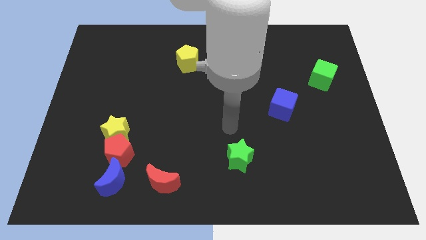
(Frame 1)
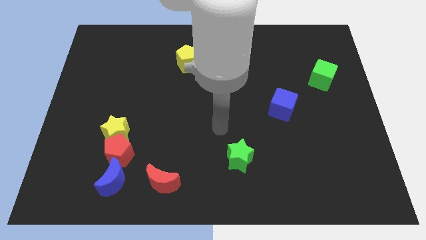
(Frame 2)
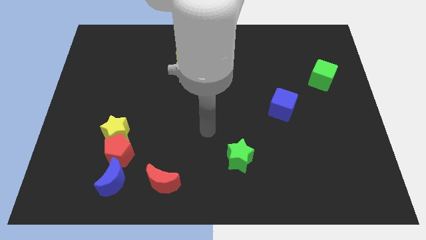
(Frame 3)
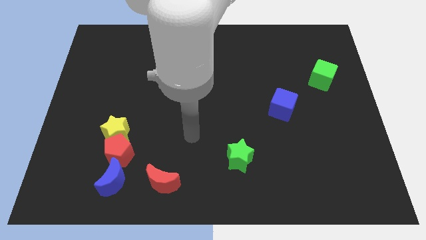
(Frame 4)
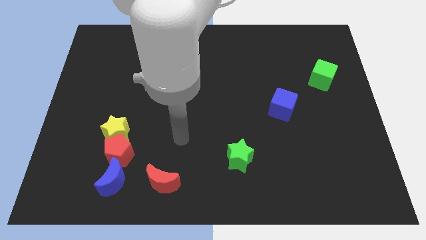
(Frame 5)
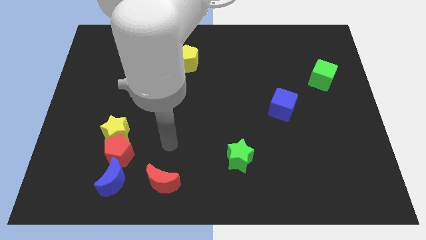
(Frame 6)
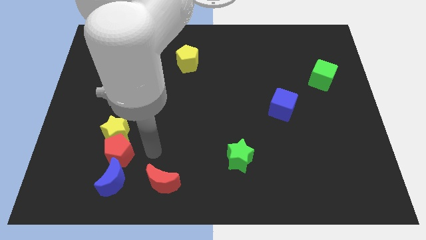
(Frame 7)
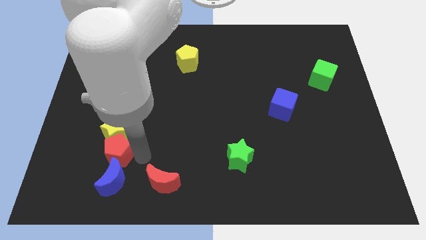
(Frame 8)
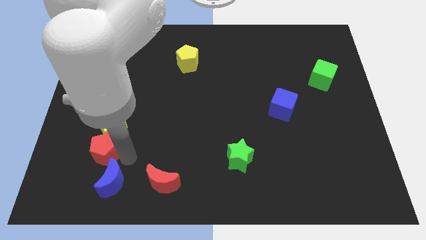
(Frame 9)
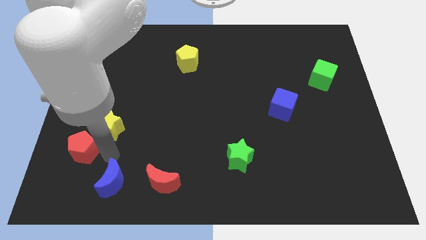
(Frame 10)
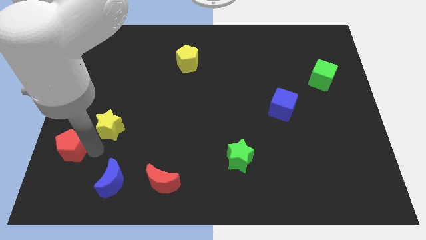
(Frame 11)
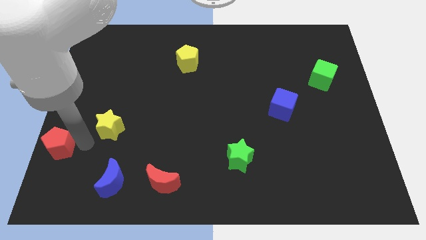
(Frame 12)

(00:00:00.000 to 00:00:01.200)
separate the yellow star from the red pentagon

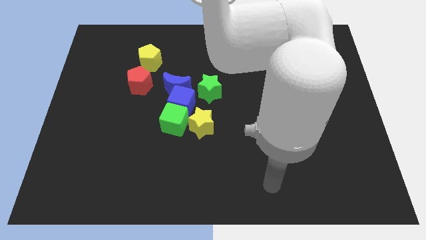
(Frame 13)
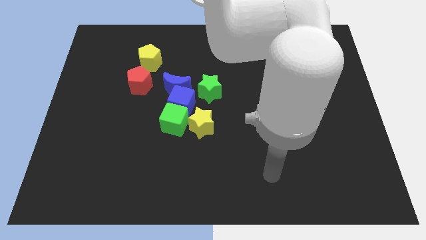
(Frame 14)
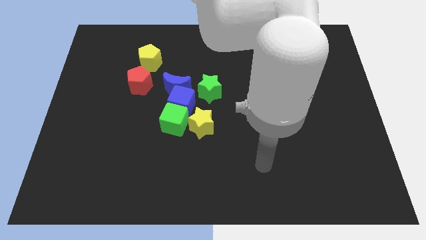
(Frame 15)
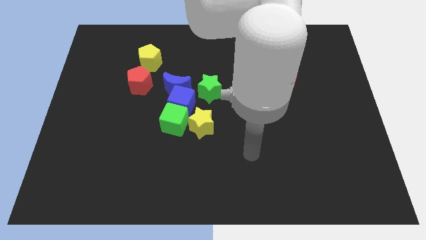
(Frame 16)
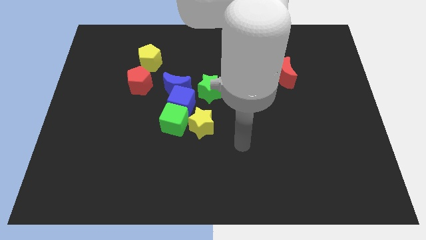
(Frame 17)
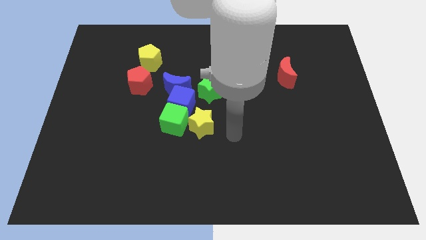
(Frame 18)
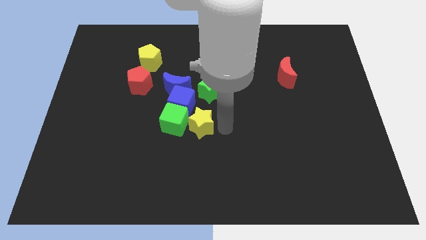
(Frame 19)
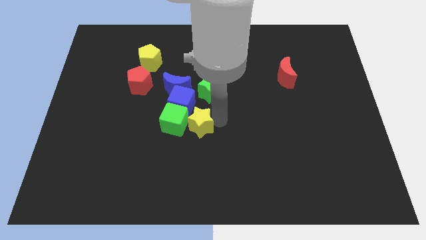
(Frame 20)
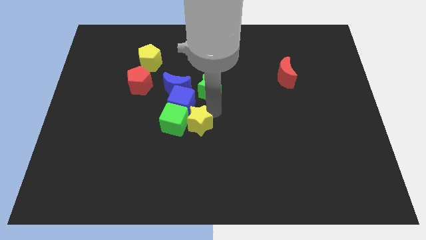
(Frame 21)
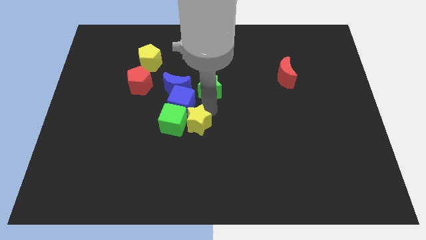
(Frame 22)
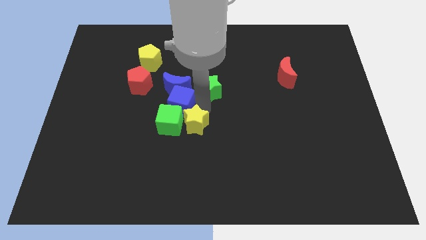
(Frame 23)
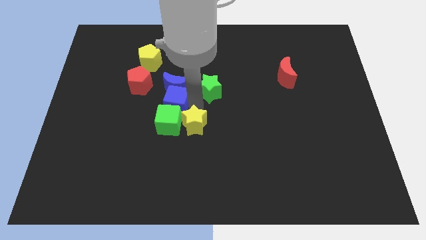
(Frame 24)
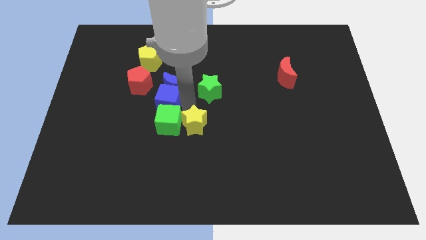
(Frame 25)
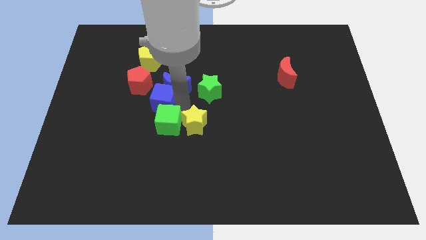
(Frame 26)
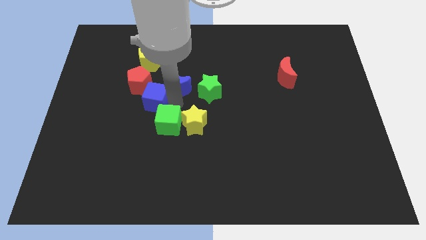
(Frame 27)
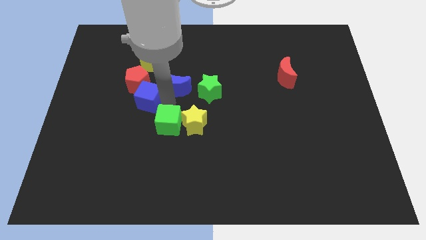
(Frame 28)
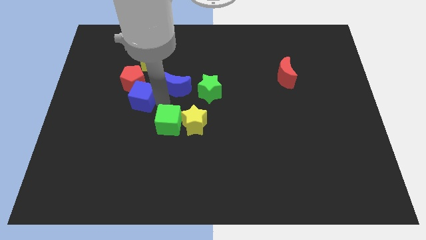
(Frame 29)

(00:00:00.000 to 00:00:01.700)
pull the blue cube apart from the group of blocks

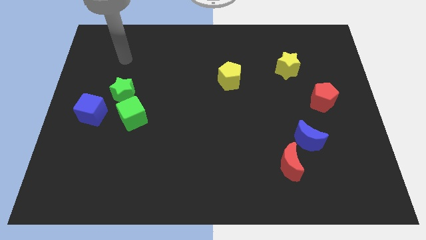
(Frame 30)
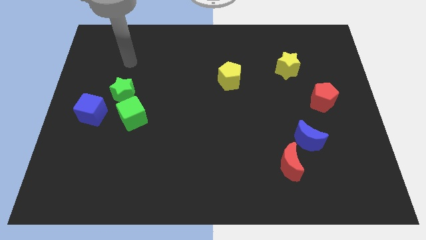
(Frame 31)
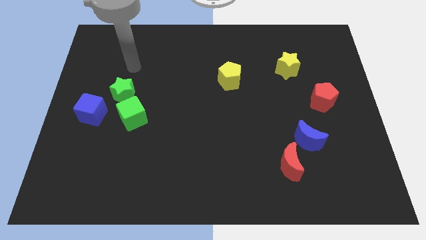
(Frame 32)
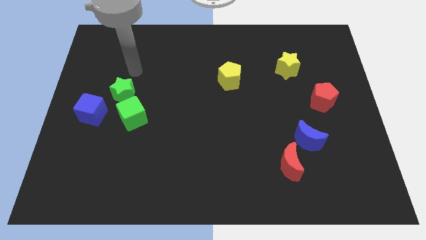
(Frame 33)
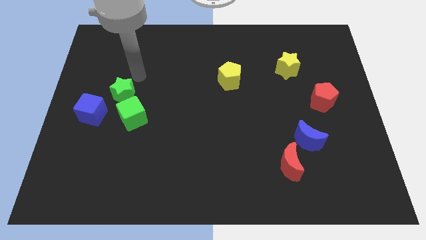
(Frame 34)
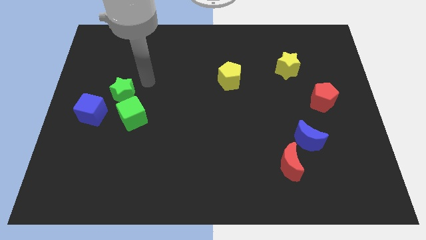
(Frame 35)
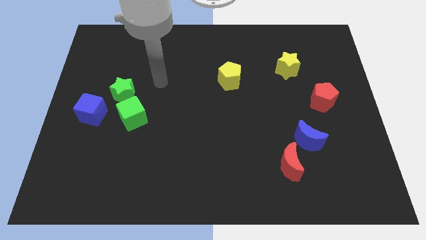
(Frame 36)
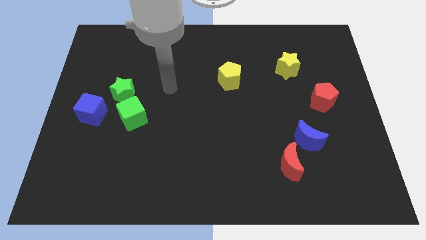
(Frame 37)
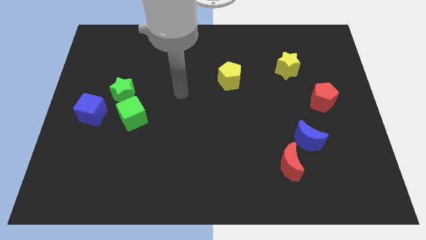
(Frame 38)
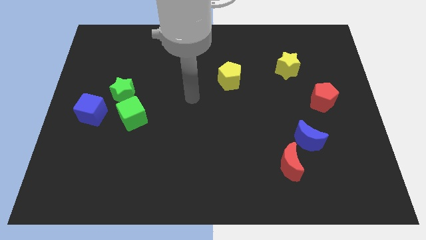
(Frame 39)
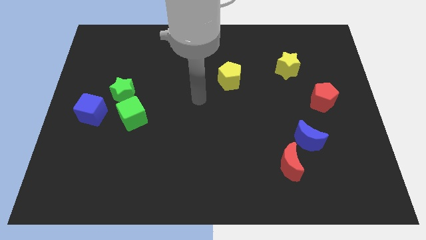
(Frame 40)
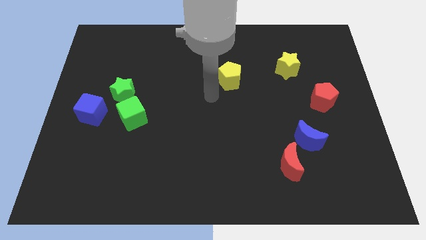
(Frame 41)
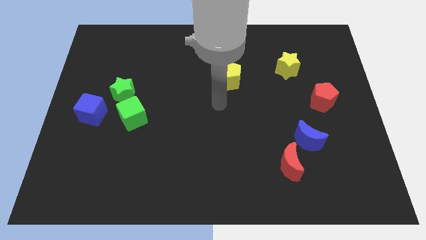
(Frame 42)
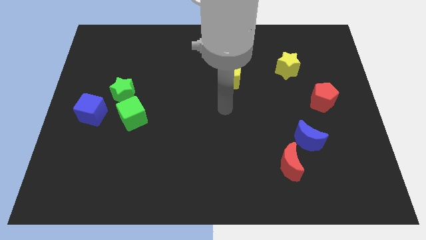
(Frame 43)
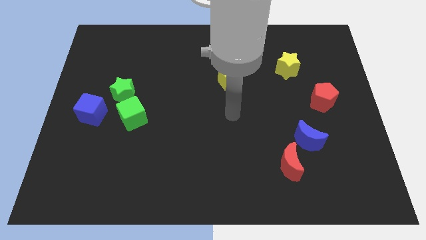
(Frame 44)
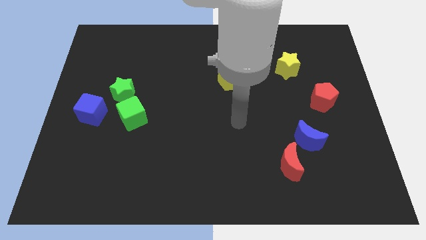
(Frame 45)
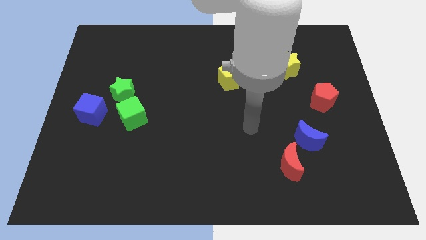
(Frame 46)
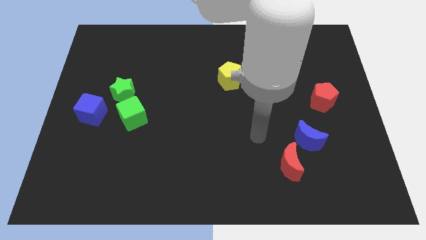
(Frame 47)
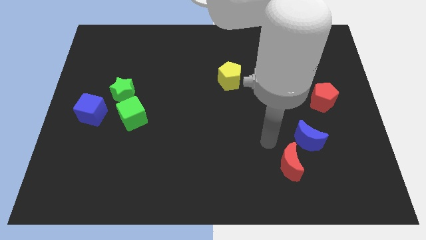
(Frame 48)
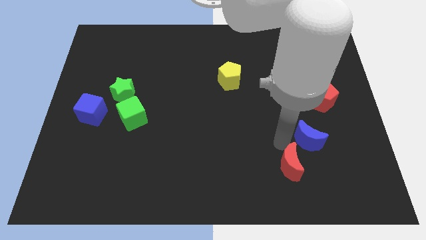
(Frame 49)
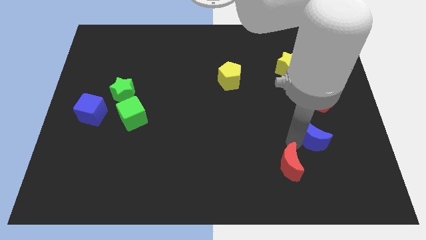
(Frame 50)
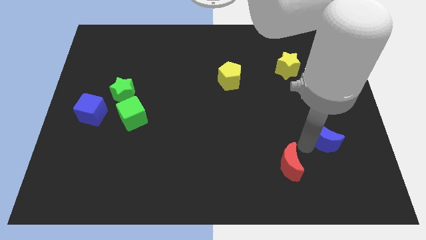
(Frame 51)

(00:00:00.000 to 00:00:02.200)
move the red moon away from the blue moon

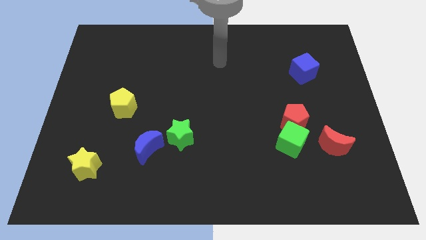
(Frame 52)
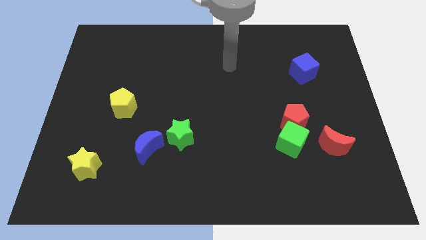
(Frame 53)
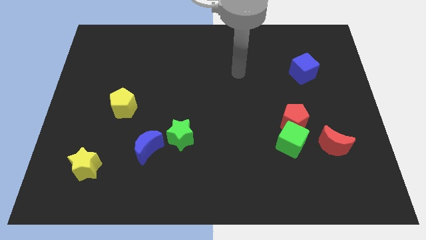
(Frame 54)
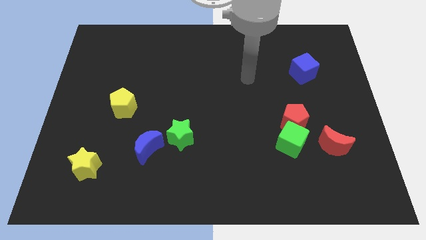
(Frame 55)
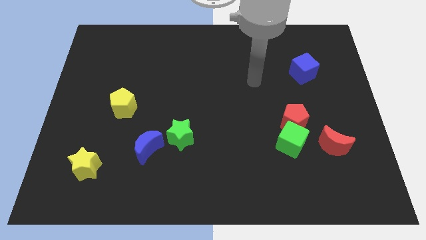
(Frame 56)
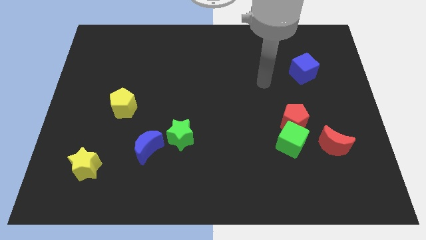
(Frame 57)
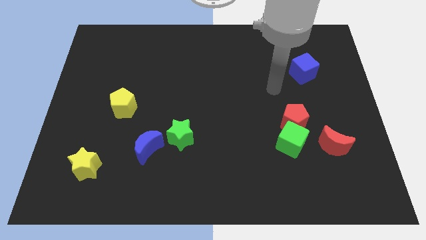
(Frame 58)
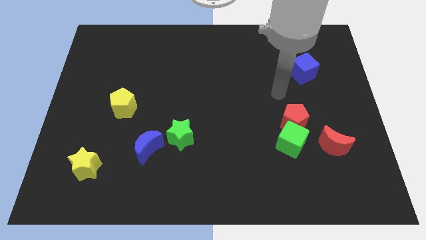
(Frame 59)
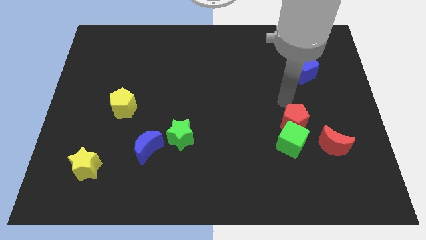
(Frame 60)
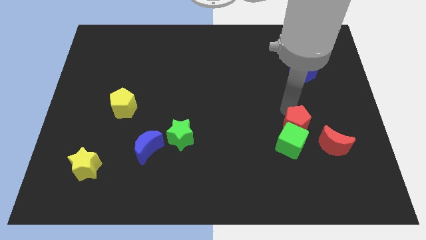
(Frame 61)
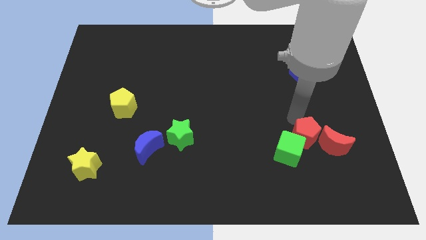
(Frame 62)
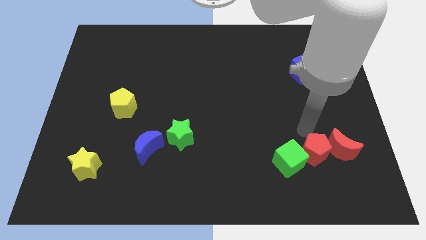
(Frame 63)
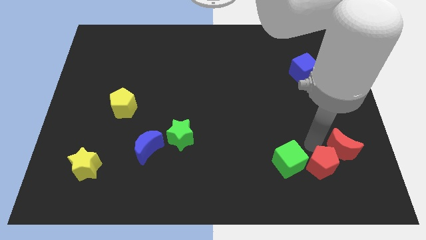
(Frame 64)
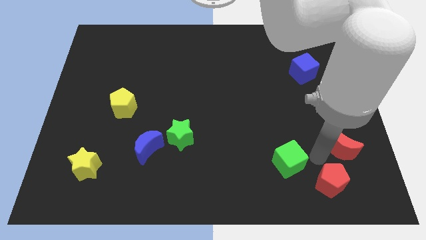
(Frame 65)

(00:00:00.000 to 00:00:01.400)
pull the green cube apart from the red pentagon and red moon

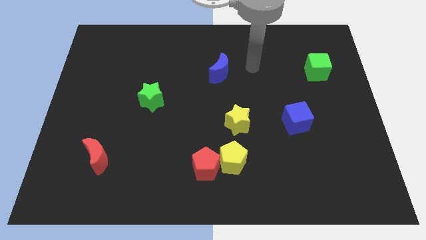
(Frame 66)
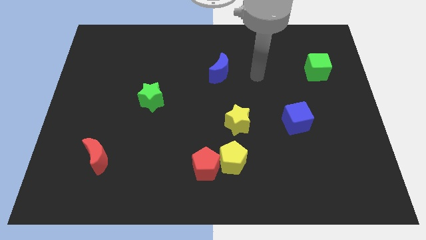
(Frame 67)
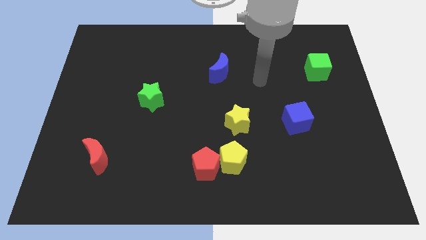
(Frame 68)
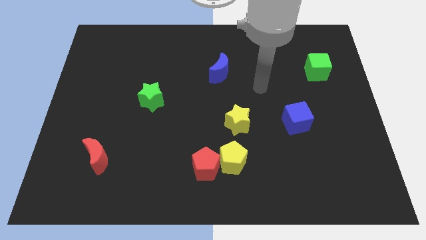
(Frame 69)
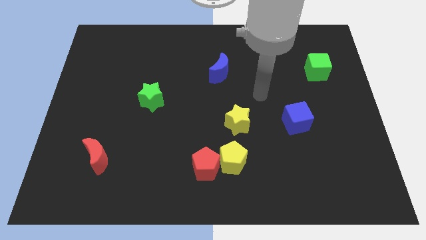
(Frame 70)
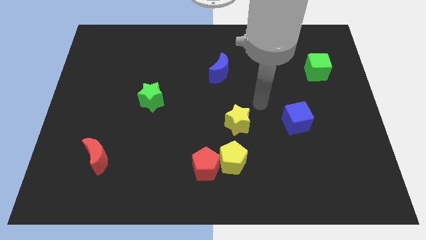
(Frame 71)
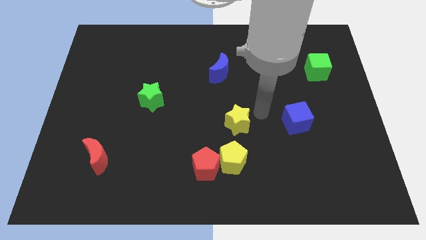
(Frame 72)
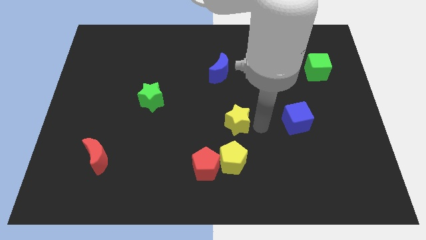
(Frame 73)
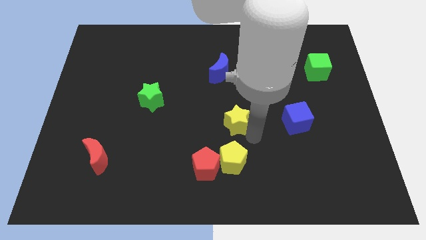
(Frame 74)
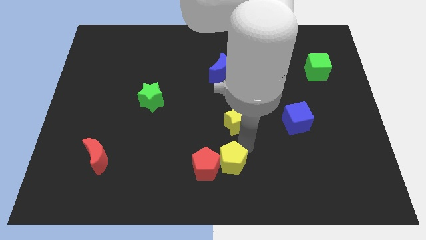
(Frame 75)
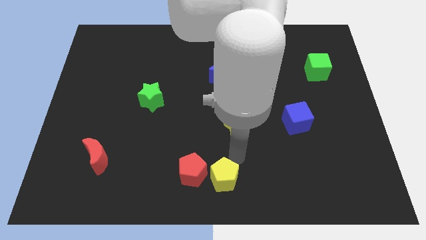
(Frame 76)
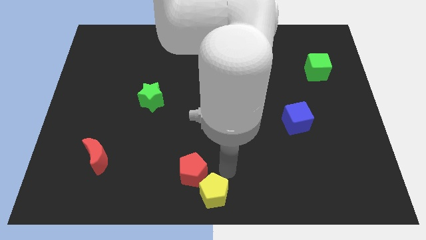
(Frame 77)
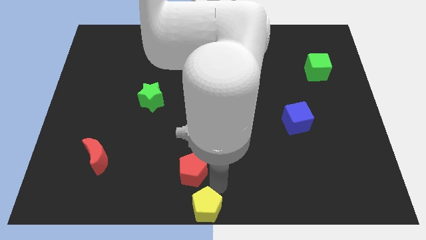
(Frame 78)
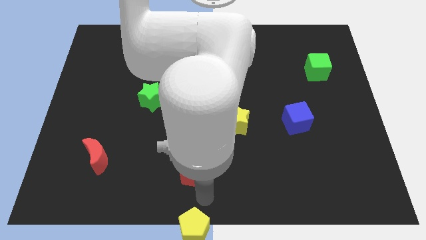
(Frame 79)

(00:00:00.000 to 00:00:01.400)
pull the red pentagon apart from the yellow pentagon

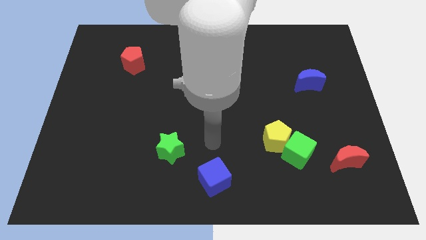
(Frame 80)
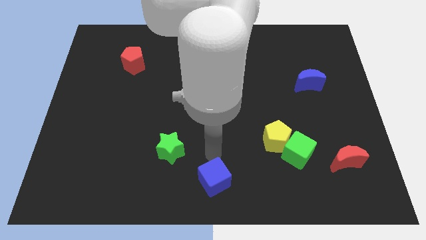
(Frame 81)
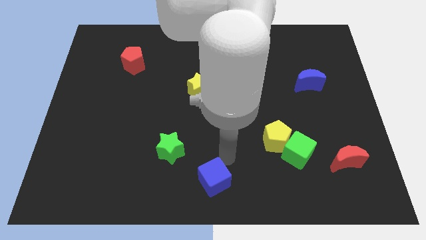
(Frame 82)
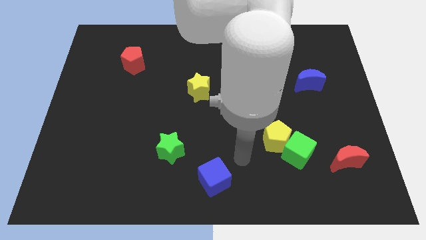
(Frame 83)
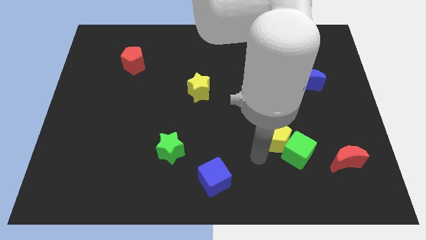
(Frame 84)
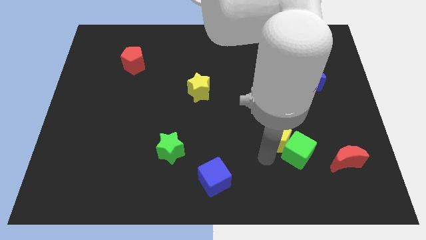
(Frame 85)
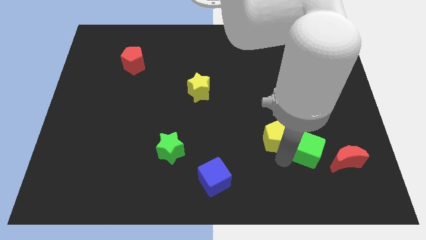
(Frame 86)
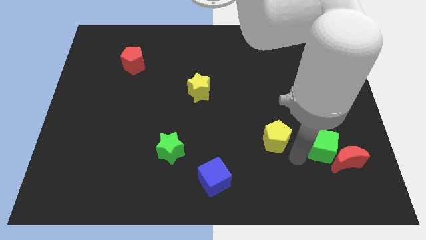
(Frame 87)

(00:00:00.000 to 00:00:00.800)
pull the yellow pentagon apart from the green cube

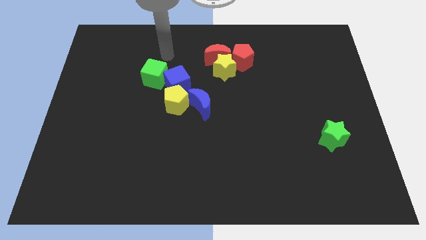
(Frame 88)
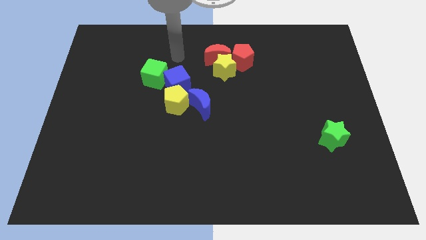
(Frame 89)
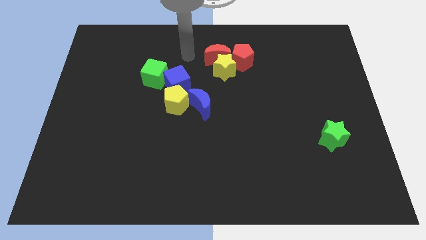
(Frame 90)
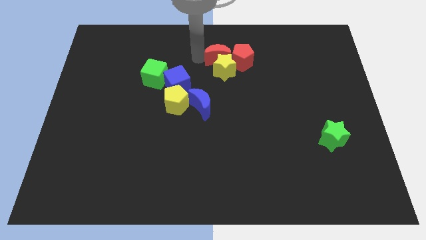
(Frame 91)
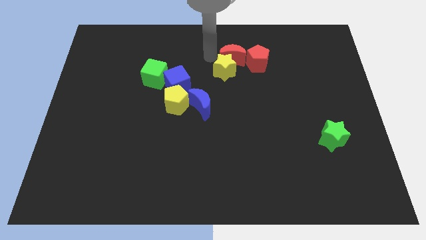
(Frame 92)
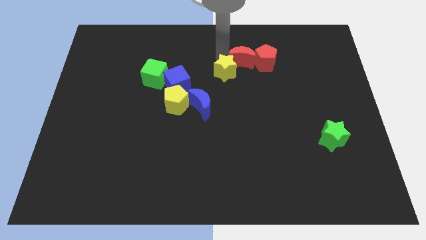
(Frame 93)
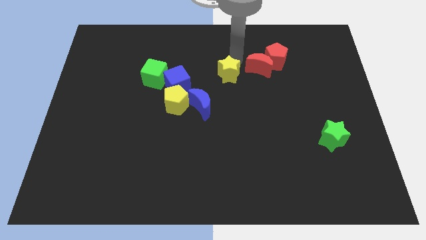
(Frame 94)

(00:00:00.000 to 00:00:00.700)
move the yellow star away from the red moon and red pentagon

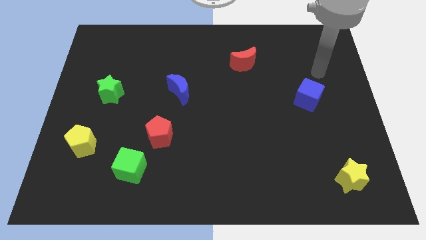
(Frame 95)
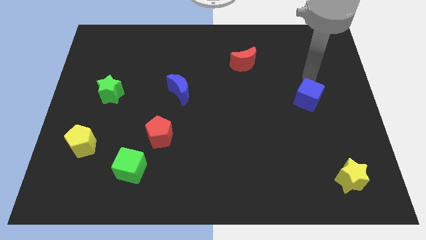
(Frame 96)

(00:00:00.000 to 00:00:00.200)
separate the red pentagon from the green cube
